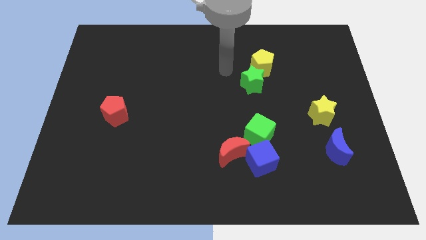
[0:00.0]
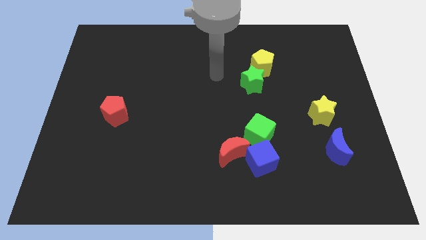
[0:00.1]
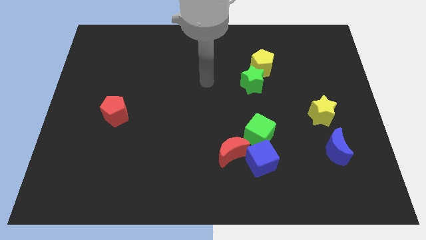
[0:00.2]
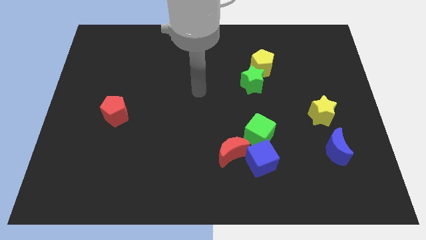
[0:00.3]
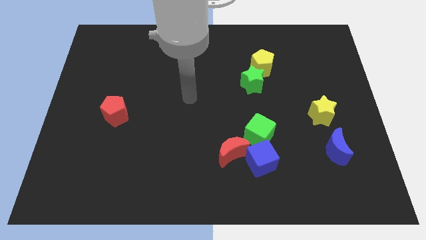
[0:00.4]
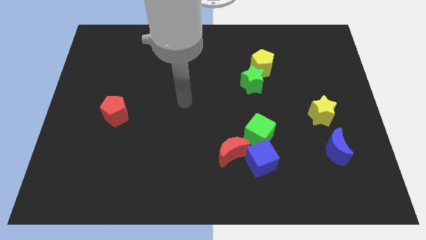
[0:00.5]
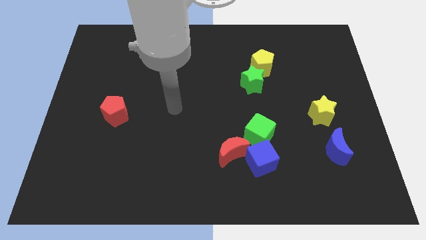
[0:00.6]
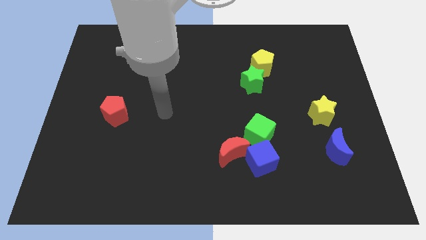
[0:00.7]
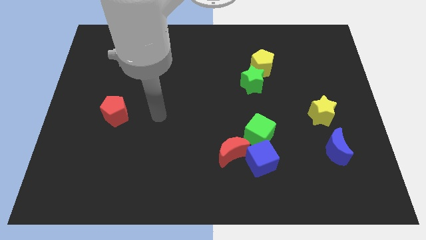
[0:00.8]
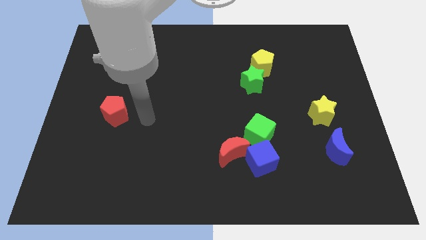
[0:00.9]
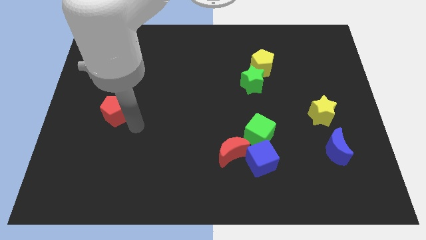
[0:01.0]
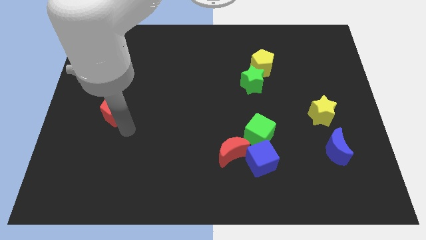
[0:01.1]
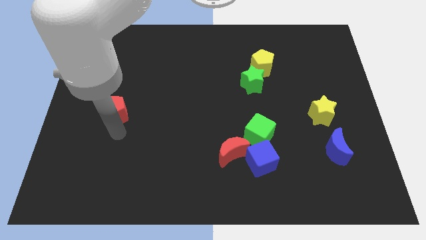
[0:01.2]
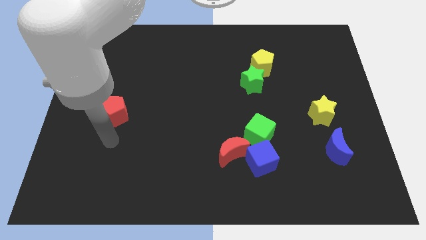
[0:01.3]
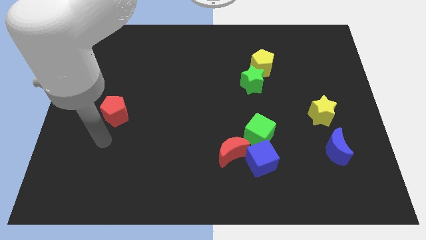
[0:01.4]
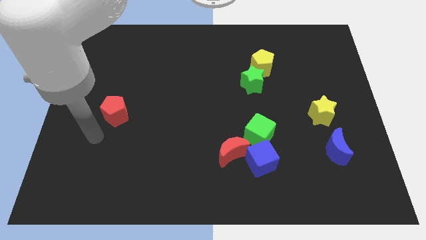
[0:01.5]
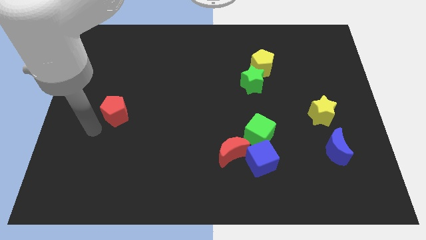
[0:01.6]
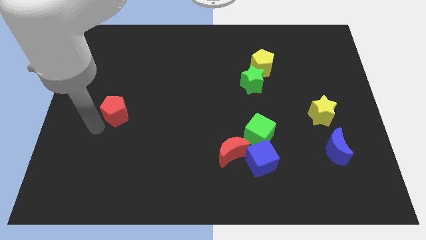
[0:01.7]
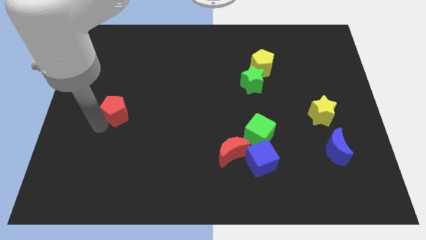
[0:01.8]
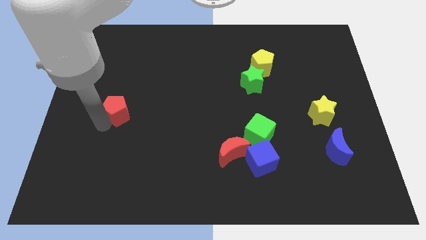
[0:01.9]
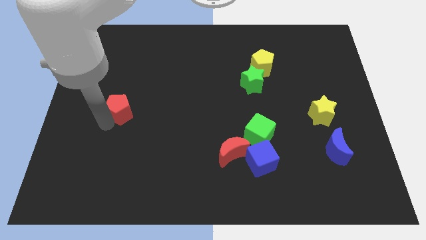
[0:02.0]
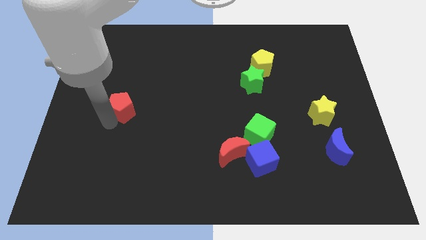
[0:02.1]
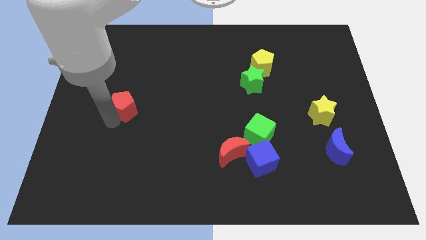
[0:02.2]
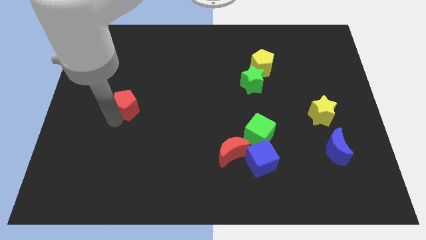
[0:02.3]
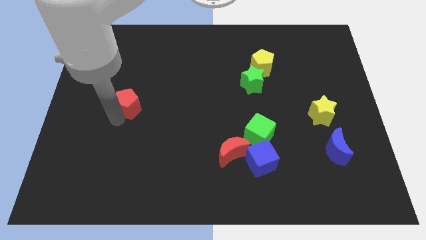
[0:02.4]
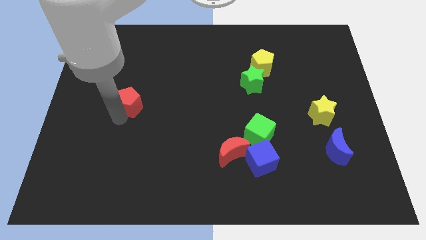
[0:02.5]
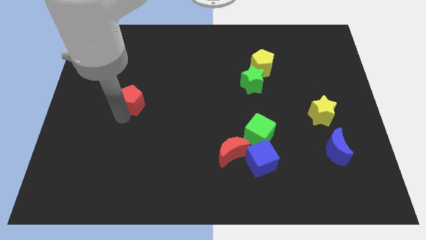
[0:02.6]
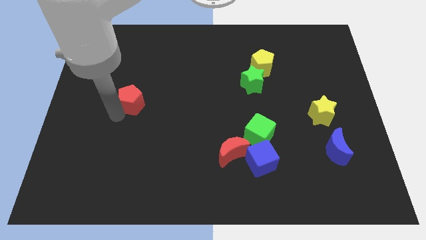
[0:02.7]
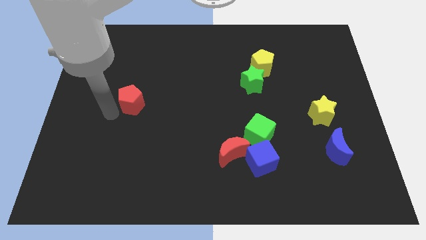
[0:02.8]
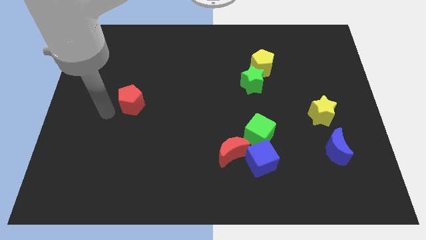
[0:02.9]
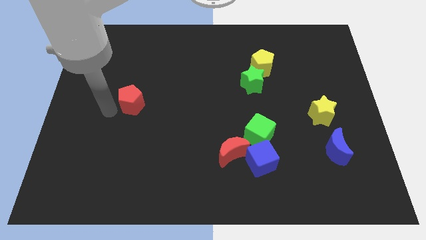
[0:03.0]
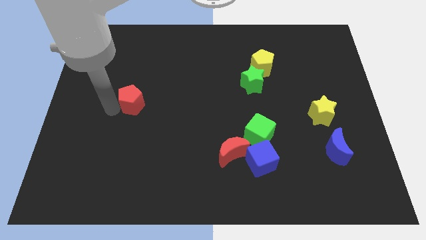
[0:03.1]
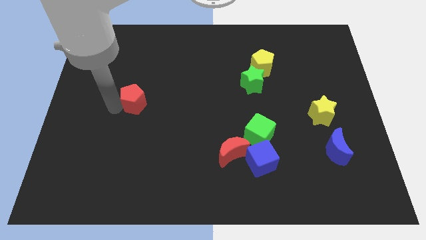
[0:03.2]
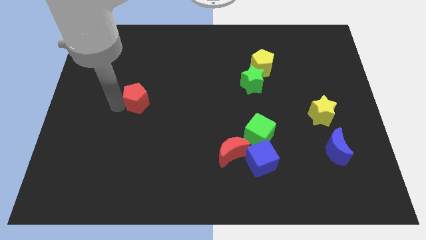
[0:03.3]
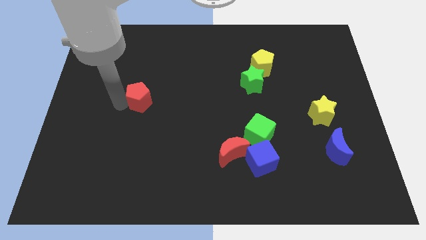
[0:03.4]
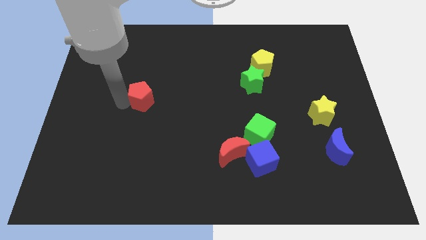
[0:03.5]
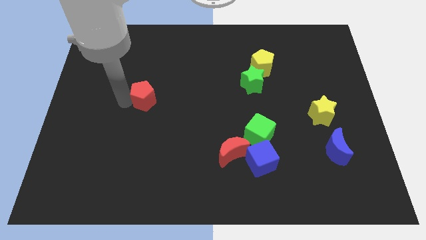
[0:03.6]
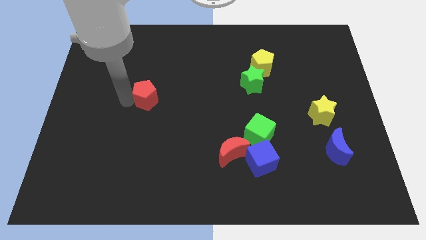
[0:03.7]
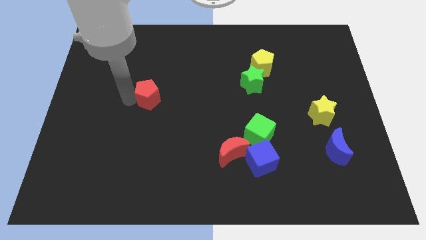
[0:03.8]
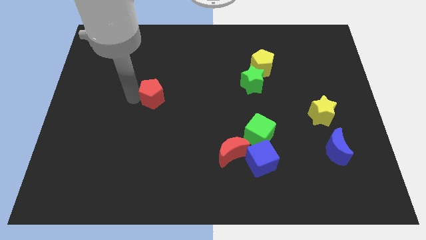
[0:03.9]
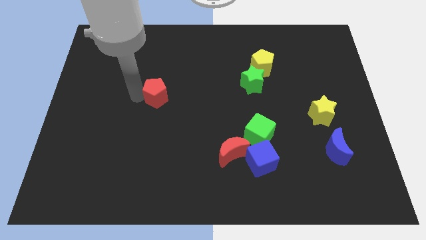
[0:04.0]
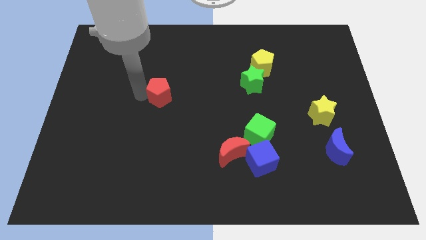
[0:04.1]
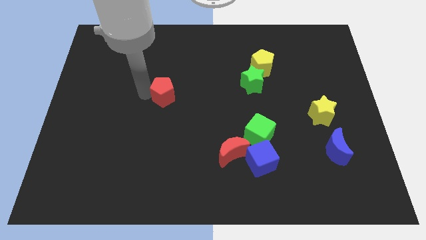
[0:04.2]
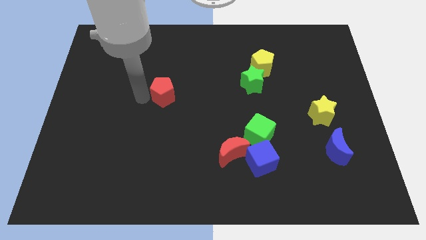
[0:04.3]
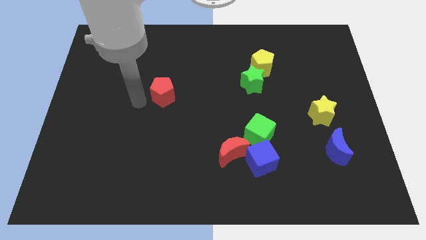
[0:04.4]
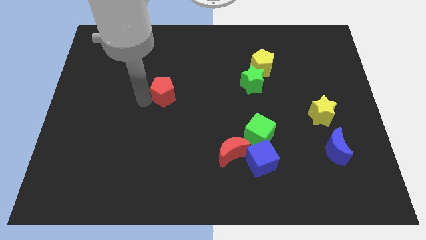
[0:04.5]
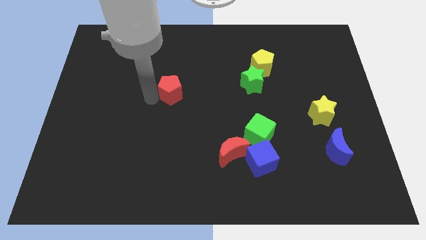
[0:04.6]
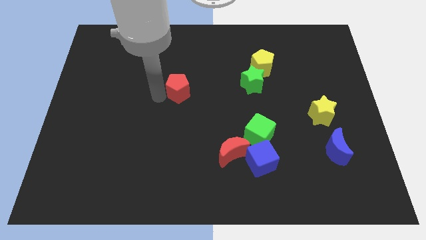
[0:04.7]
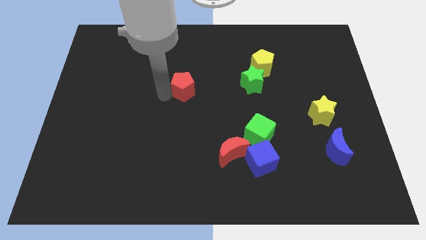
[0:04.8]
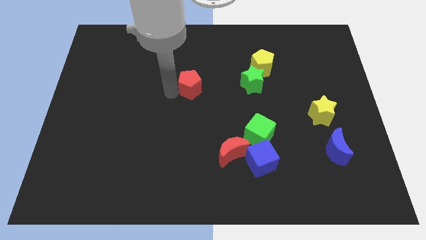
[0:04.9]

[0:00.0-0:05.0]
push the red pentagon left of the green star

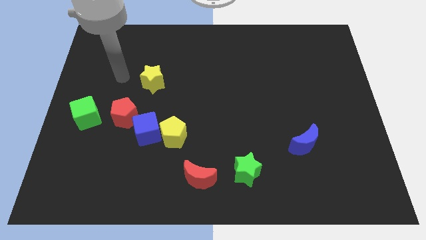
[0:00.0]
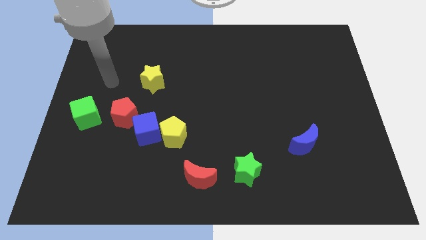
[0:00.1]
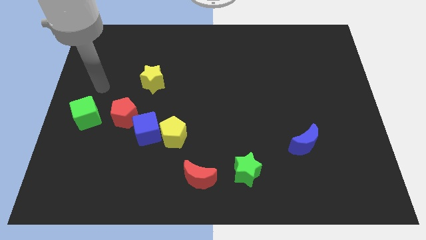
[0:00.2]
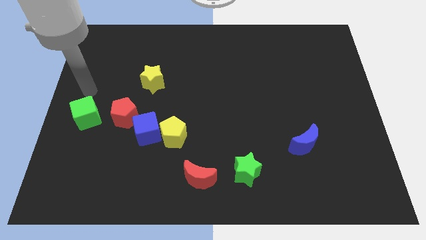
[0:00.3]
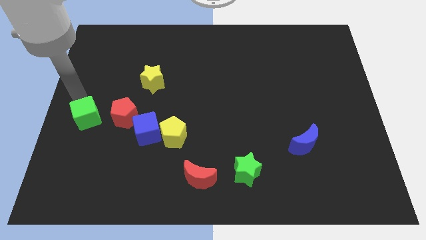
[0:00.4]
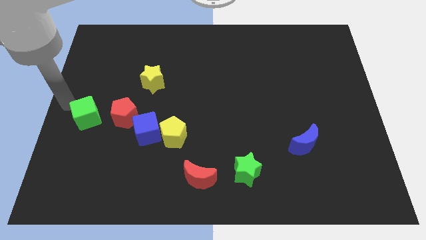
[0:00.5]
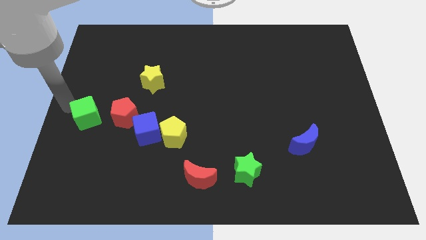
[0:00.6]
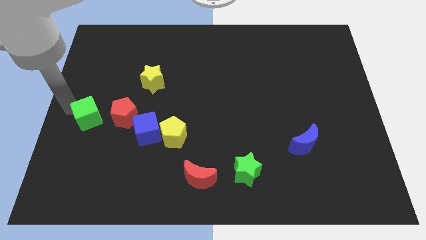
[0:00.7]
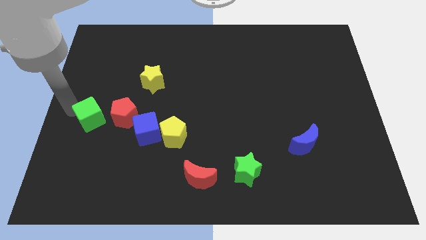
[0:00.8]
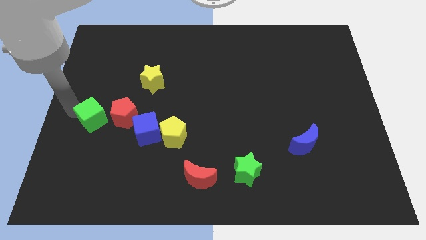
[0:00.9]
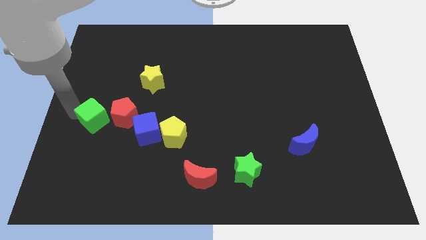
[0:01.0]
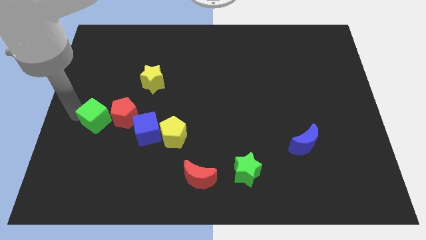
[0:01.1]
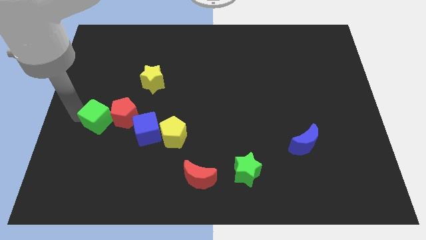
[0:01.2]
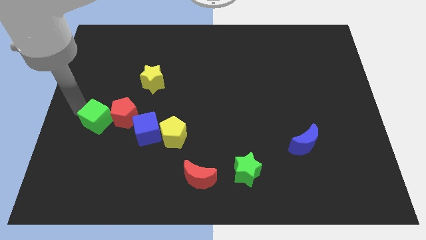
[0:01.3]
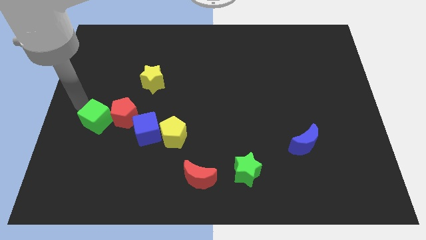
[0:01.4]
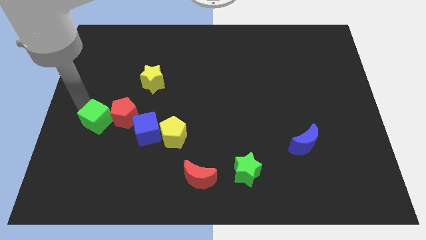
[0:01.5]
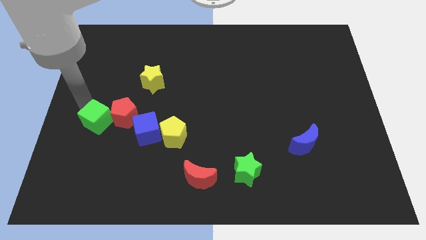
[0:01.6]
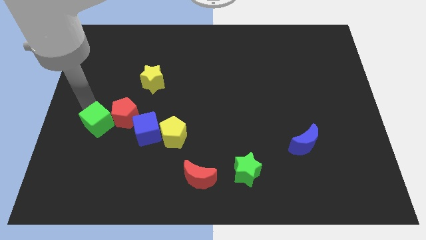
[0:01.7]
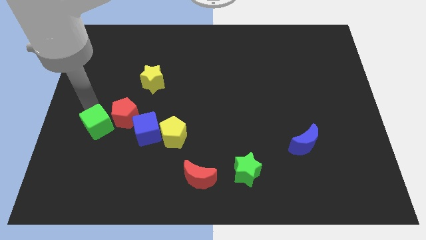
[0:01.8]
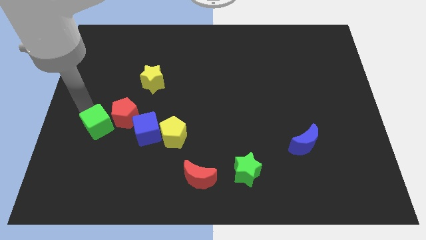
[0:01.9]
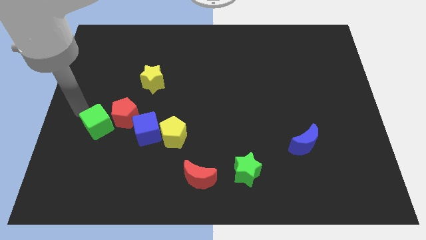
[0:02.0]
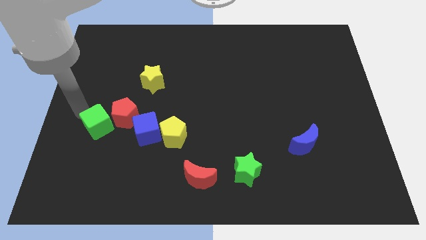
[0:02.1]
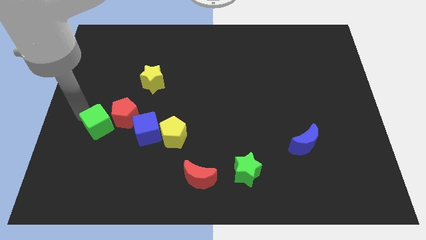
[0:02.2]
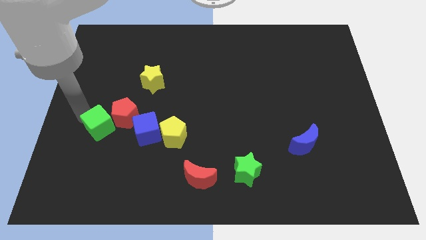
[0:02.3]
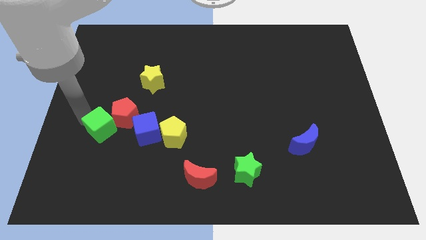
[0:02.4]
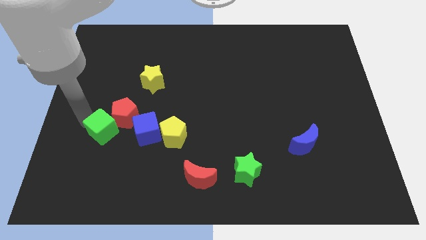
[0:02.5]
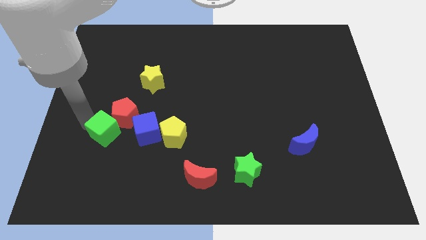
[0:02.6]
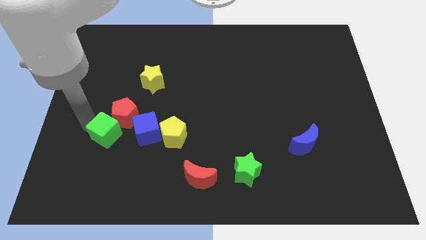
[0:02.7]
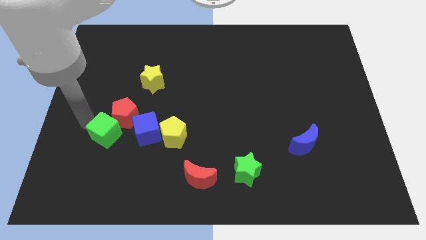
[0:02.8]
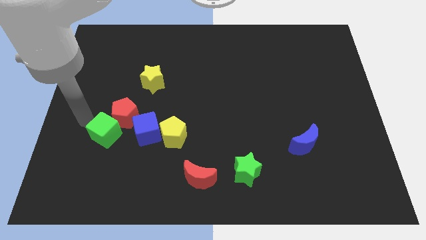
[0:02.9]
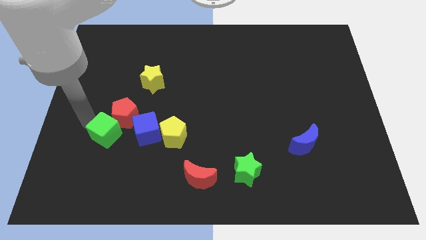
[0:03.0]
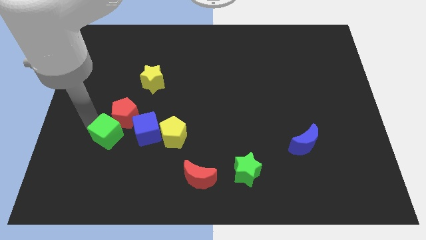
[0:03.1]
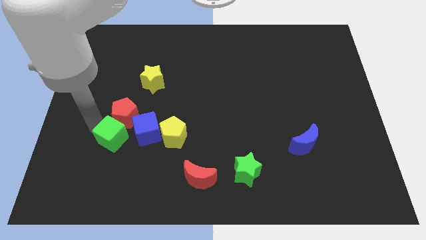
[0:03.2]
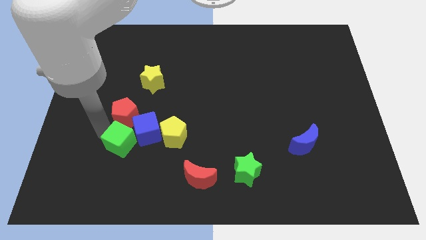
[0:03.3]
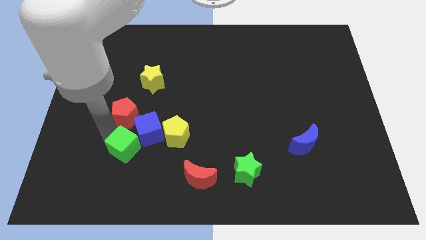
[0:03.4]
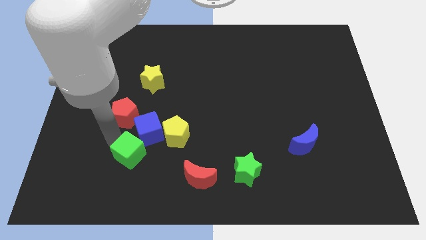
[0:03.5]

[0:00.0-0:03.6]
move the green cube to the bottom left side of the yellow pentagon
